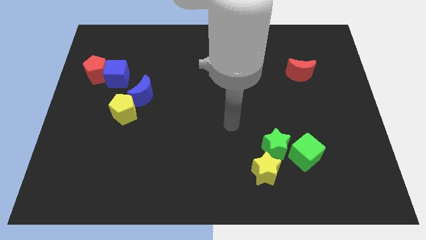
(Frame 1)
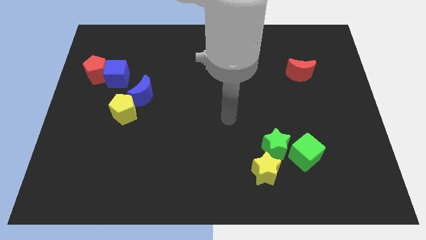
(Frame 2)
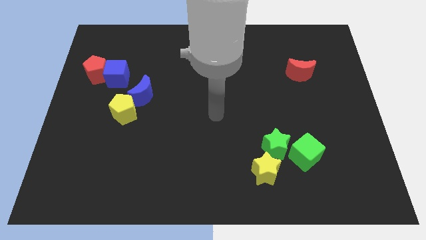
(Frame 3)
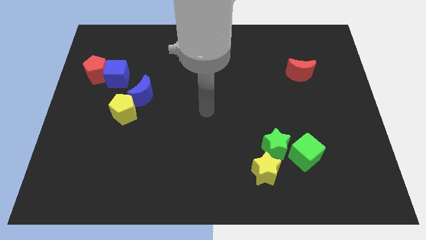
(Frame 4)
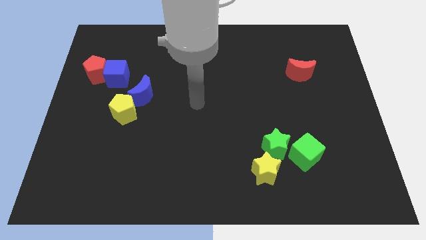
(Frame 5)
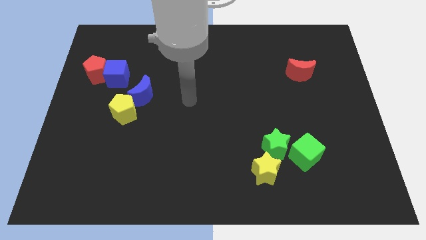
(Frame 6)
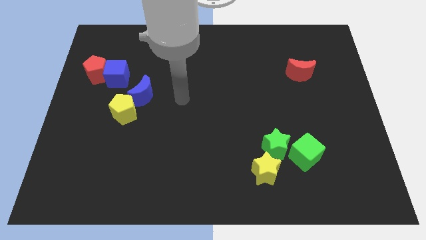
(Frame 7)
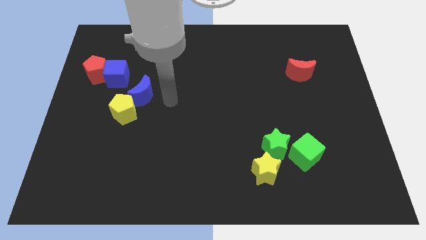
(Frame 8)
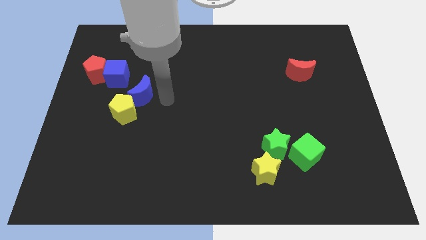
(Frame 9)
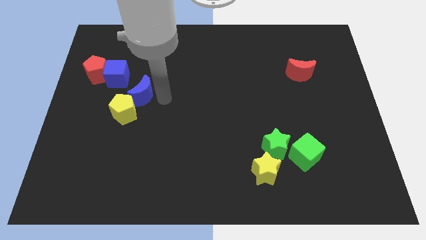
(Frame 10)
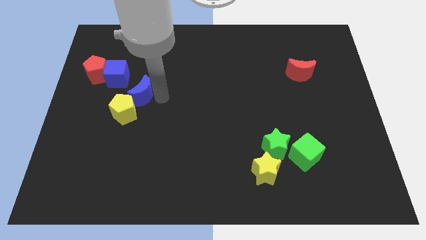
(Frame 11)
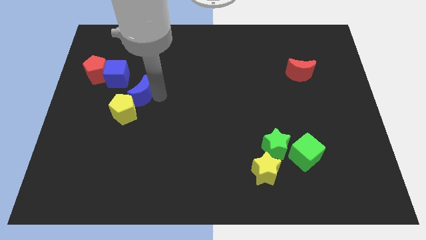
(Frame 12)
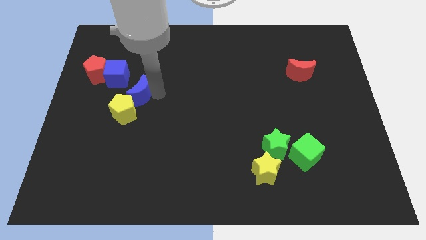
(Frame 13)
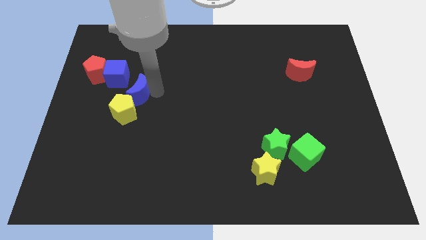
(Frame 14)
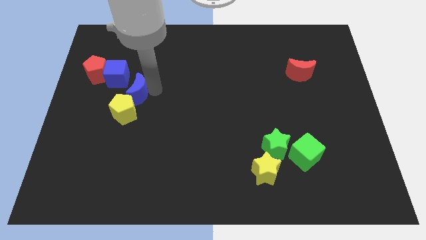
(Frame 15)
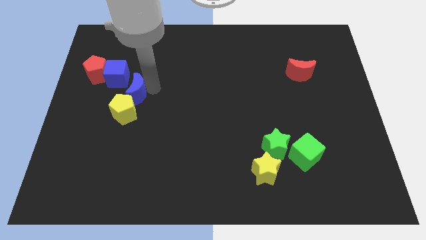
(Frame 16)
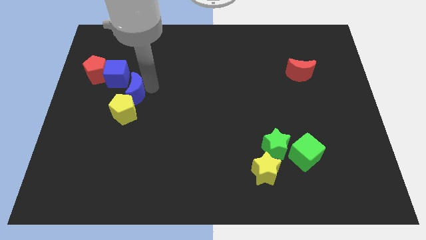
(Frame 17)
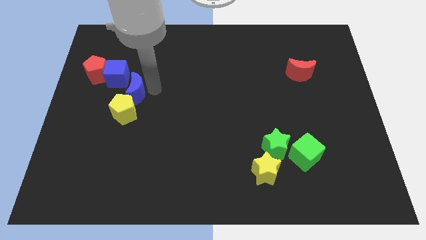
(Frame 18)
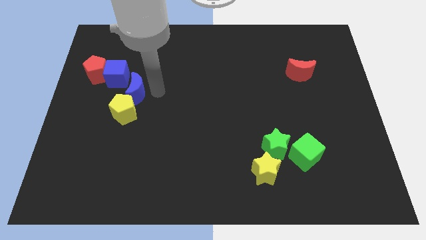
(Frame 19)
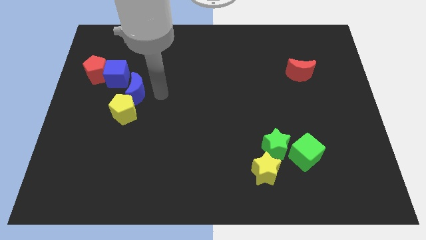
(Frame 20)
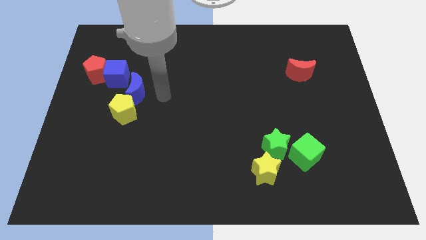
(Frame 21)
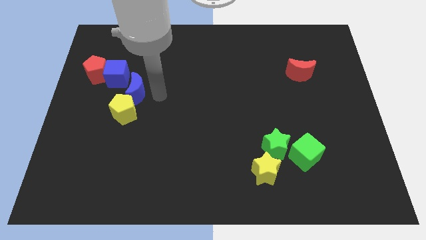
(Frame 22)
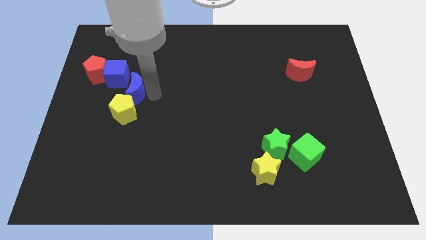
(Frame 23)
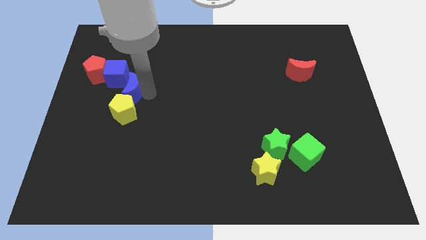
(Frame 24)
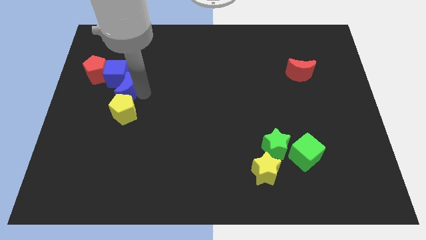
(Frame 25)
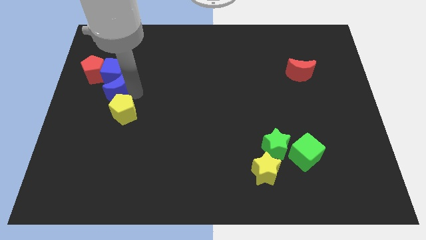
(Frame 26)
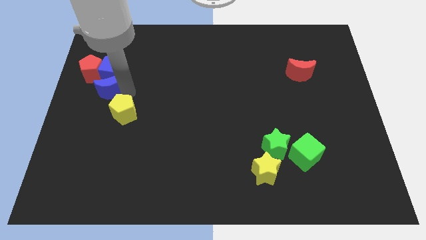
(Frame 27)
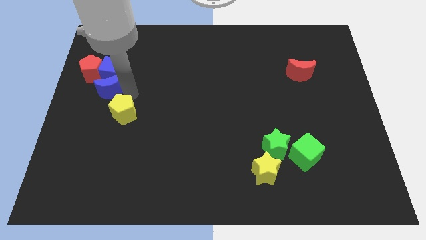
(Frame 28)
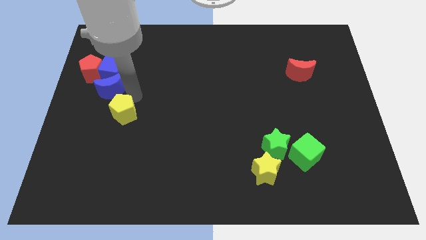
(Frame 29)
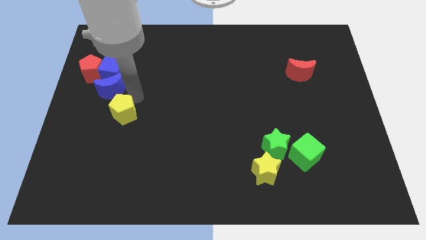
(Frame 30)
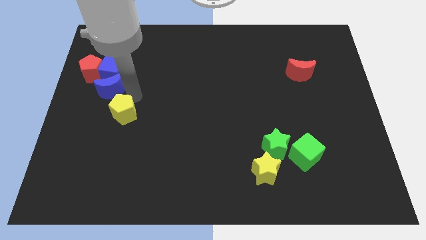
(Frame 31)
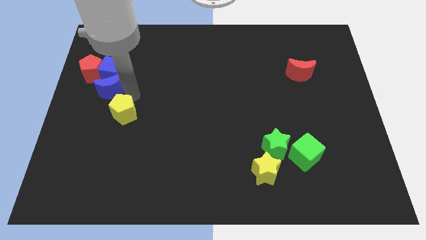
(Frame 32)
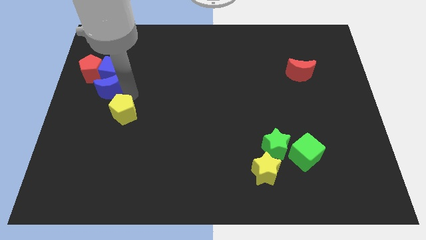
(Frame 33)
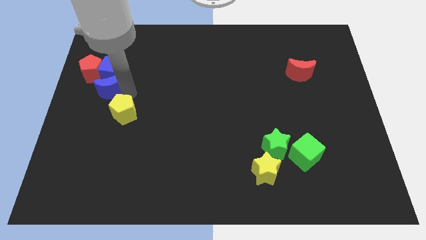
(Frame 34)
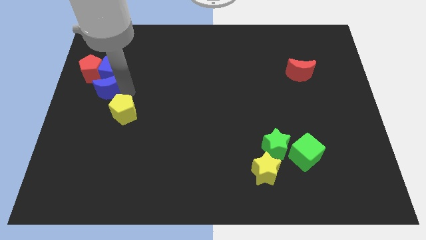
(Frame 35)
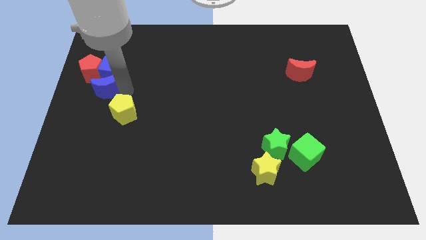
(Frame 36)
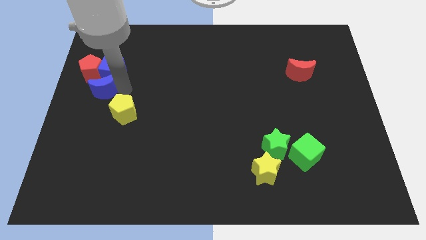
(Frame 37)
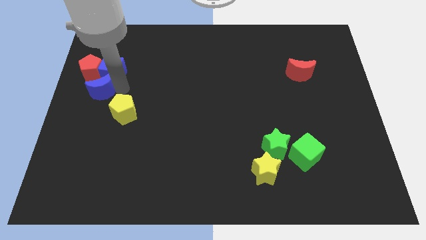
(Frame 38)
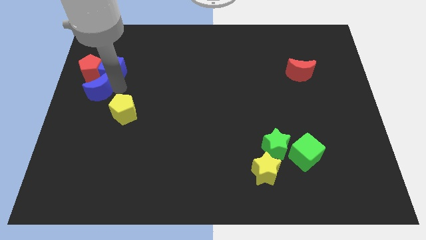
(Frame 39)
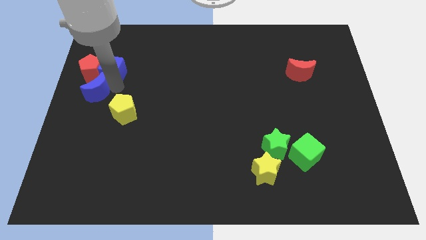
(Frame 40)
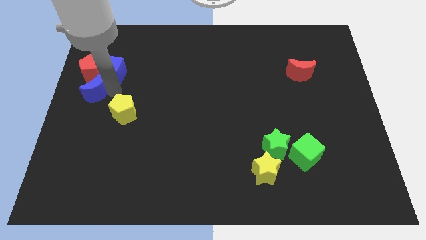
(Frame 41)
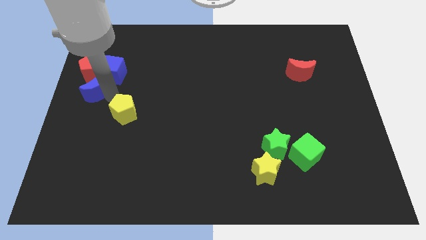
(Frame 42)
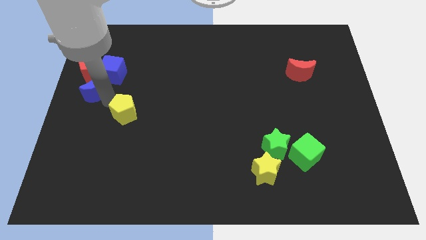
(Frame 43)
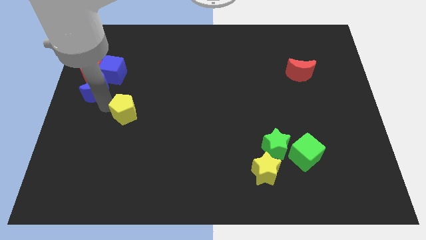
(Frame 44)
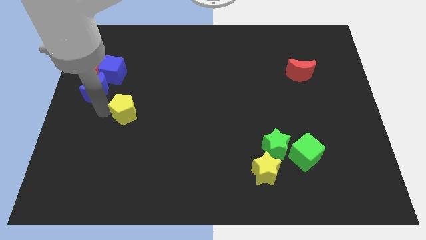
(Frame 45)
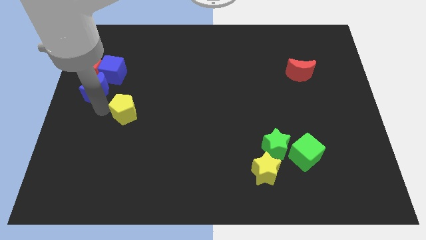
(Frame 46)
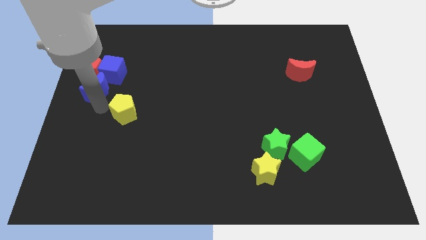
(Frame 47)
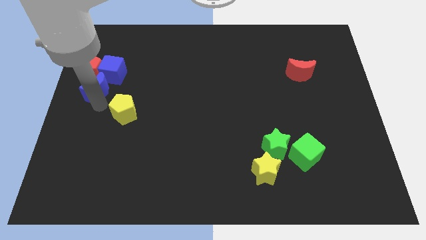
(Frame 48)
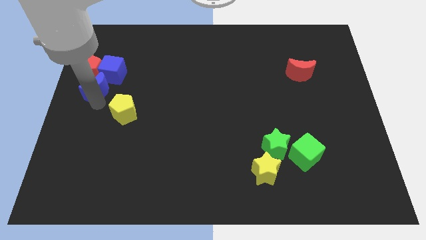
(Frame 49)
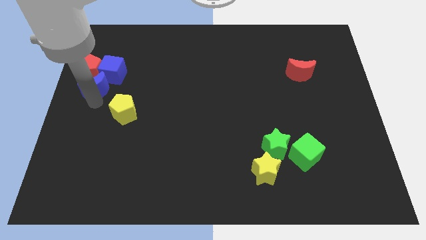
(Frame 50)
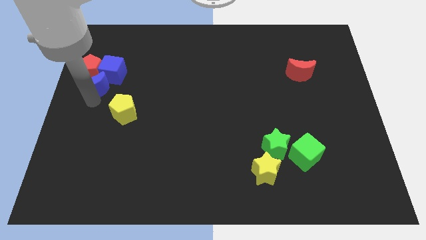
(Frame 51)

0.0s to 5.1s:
put the blue moon to the red pentagon

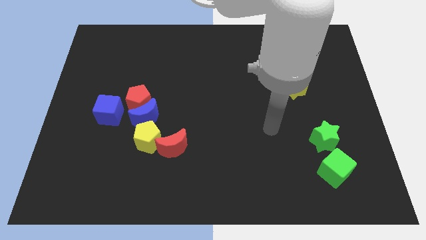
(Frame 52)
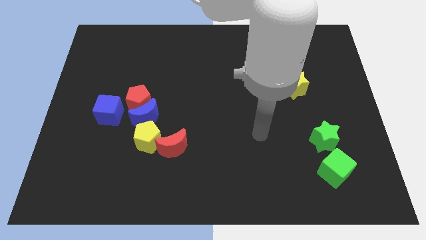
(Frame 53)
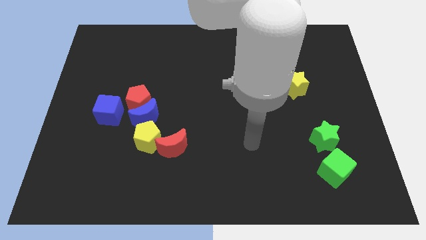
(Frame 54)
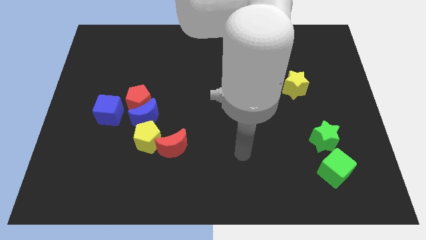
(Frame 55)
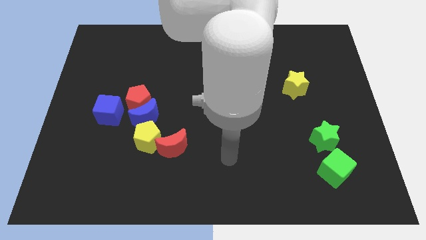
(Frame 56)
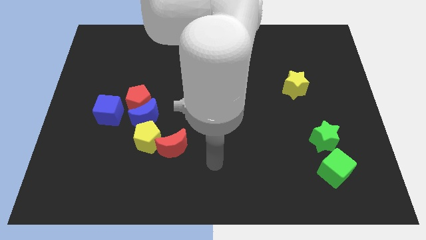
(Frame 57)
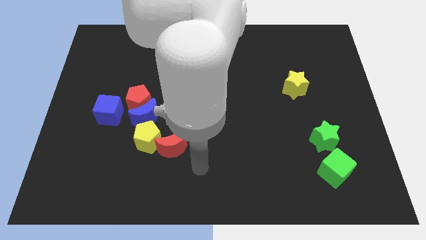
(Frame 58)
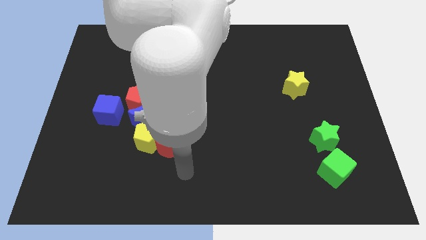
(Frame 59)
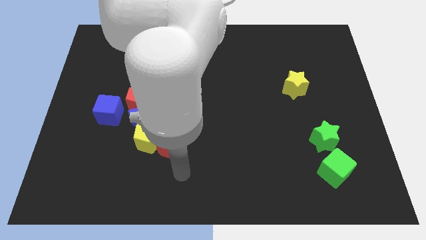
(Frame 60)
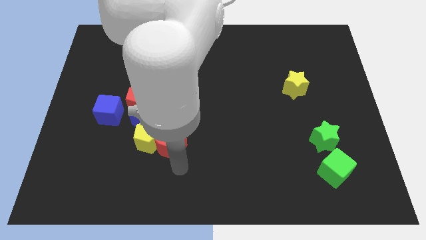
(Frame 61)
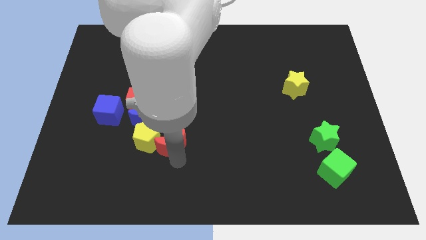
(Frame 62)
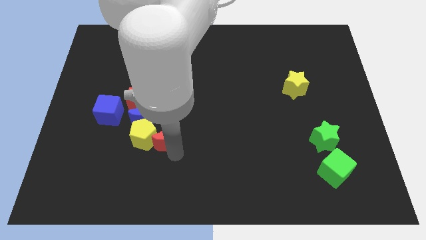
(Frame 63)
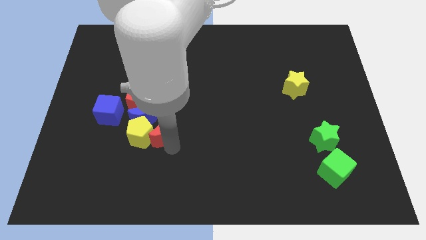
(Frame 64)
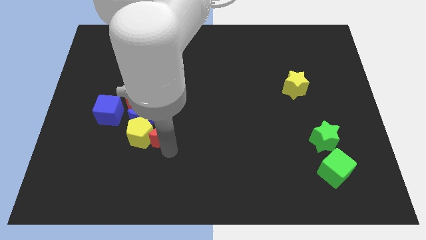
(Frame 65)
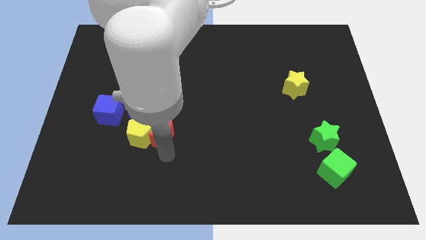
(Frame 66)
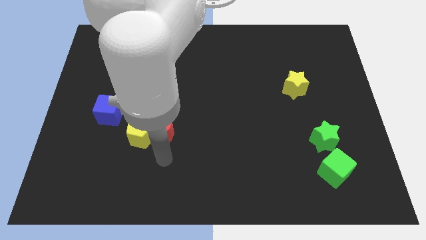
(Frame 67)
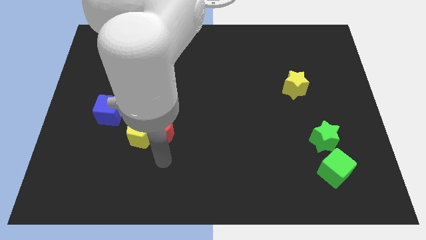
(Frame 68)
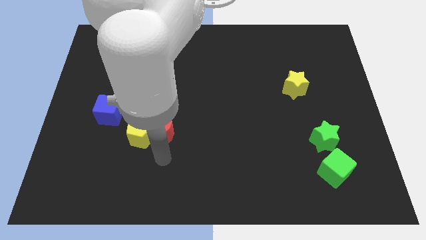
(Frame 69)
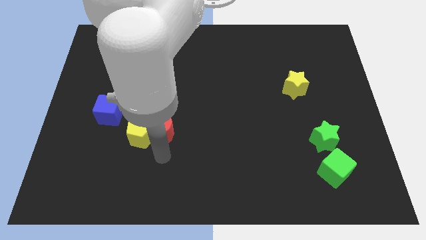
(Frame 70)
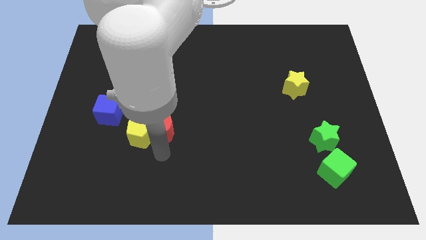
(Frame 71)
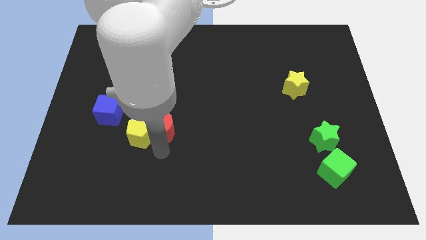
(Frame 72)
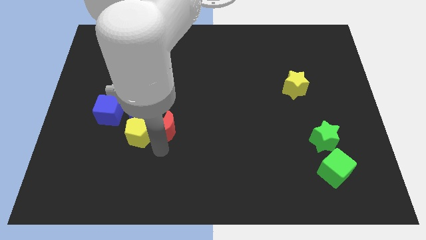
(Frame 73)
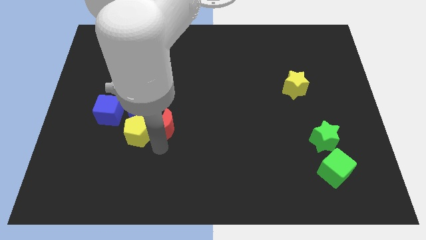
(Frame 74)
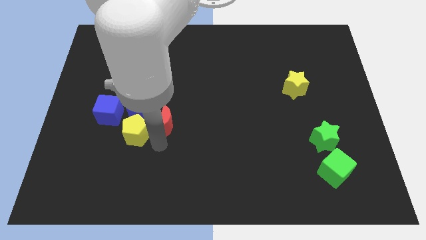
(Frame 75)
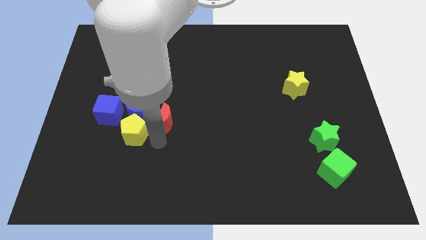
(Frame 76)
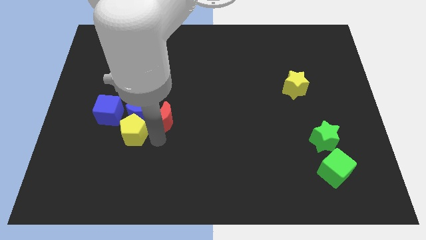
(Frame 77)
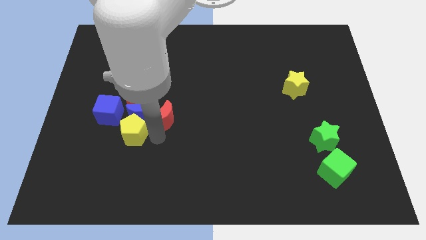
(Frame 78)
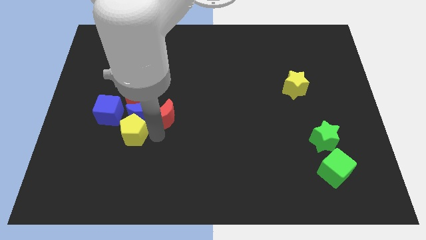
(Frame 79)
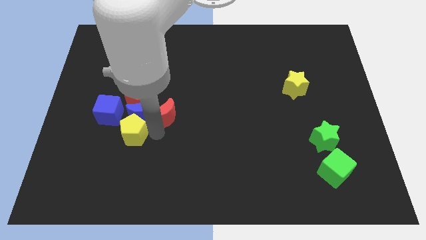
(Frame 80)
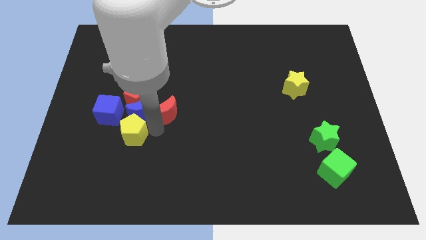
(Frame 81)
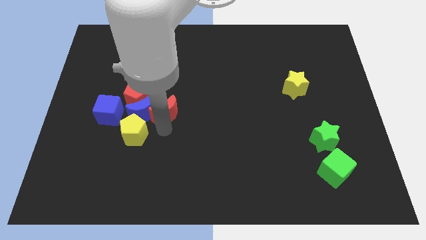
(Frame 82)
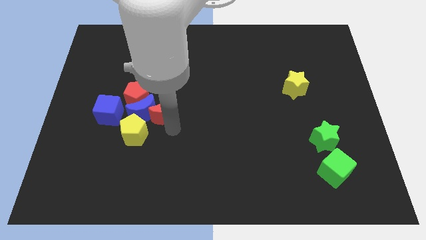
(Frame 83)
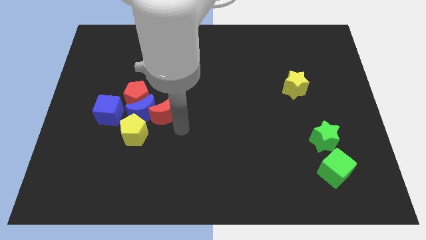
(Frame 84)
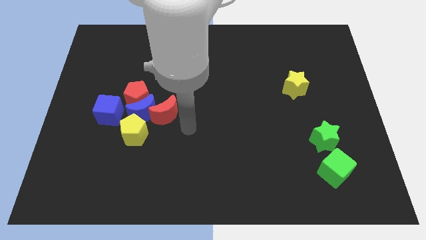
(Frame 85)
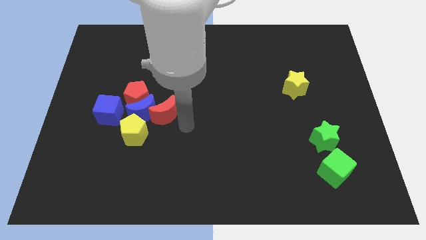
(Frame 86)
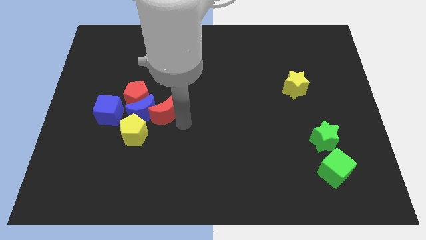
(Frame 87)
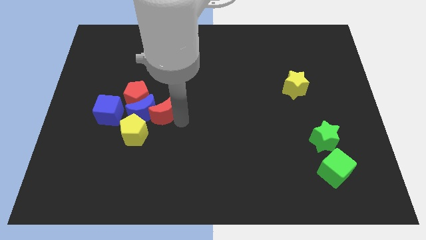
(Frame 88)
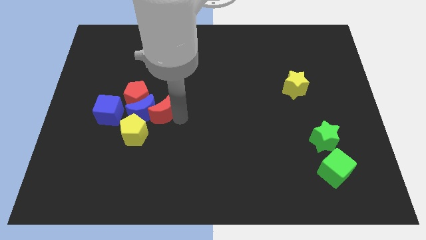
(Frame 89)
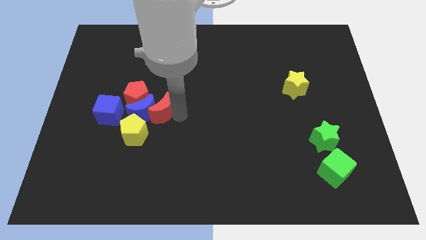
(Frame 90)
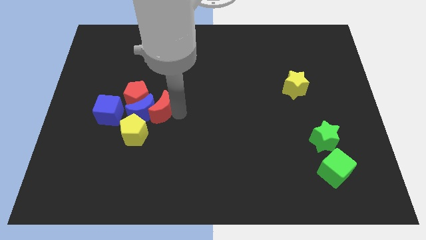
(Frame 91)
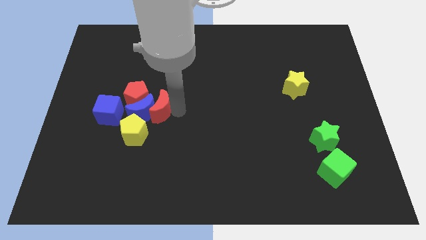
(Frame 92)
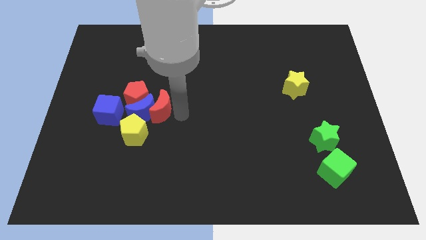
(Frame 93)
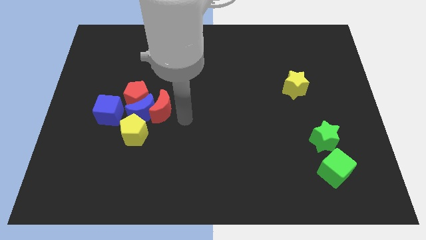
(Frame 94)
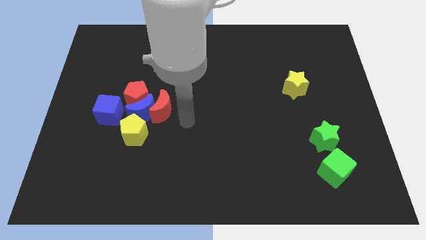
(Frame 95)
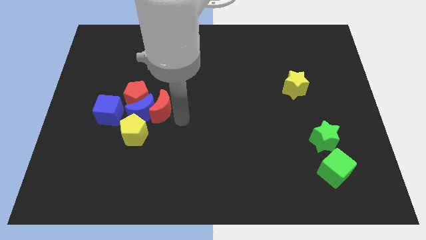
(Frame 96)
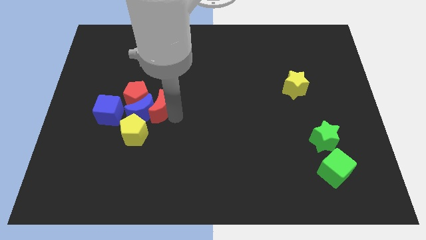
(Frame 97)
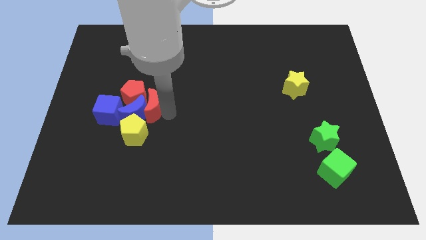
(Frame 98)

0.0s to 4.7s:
move the red moon towards the red pentagon
